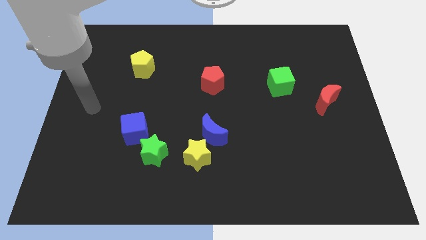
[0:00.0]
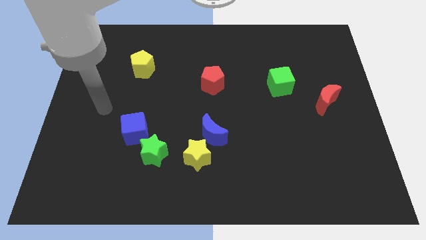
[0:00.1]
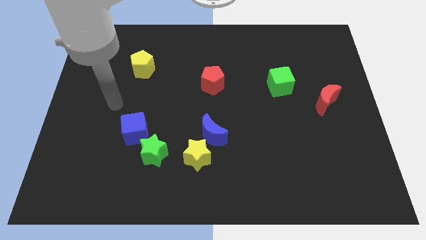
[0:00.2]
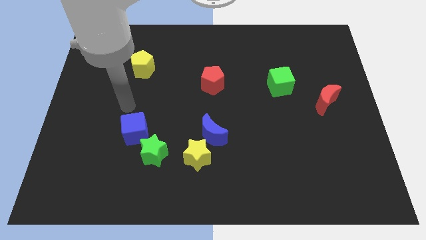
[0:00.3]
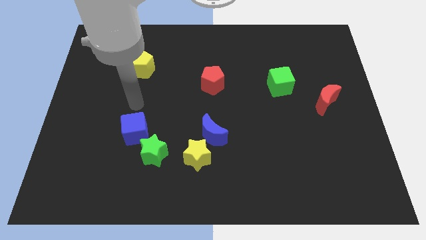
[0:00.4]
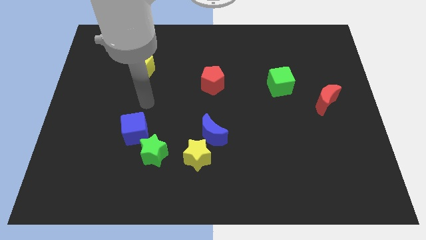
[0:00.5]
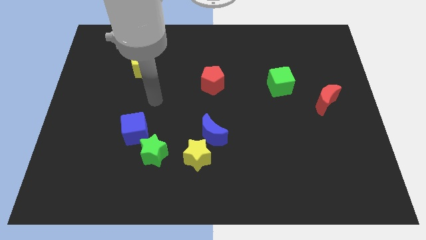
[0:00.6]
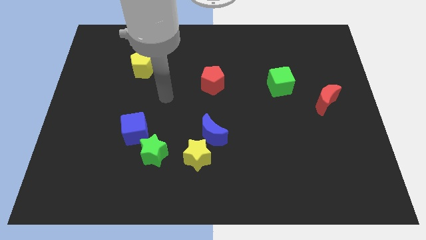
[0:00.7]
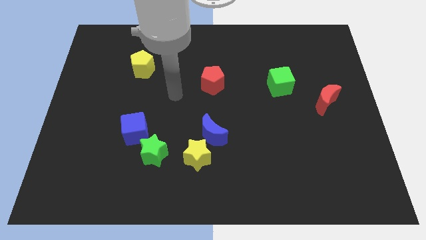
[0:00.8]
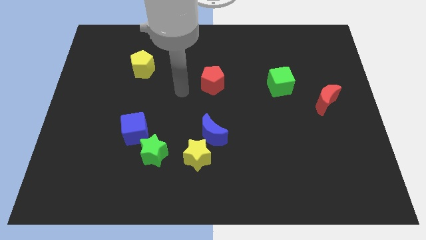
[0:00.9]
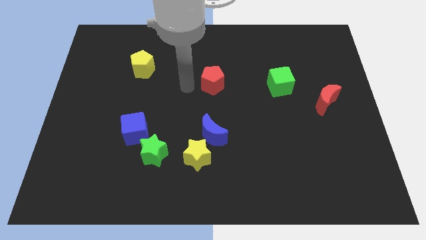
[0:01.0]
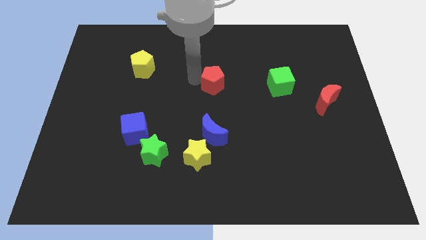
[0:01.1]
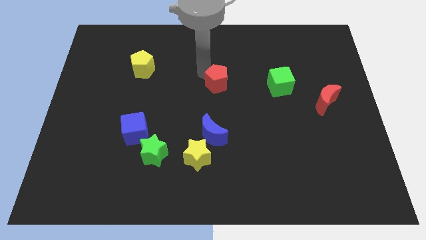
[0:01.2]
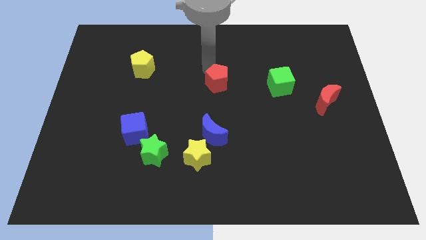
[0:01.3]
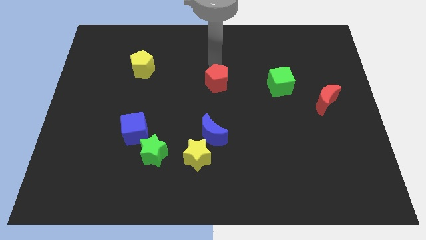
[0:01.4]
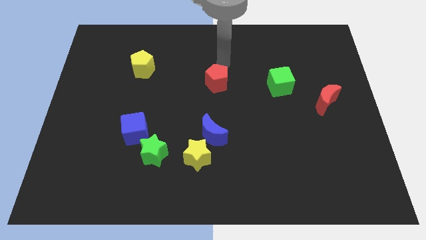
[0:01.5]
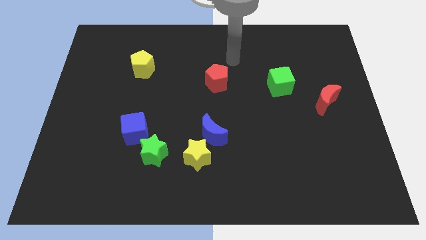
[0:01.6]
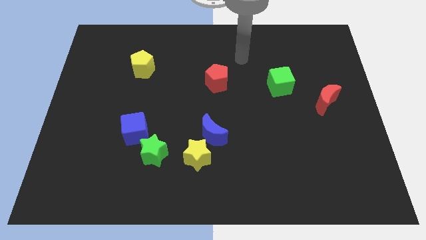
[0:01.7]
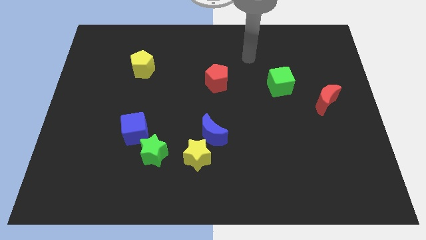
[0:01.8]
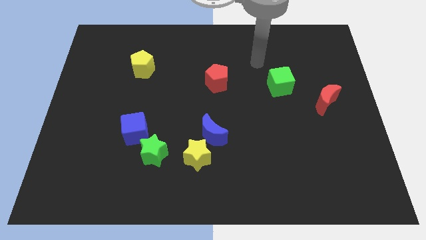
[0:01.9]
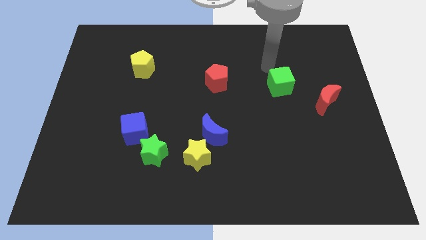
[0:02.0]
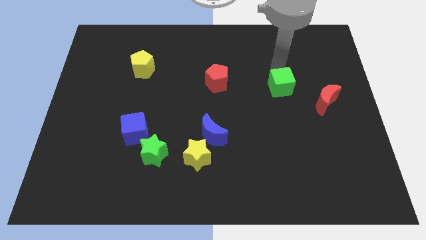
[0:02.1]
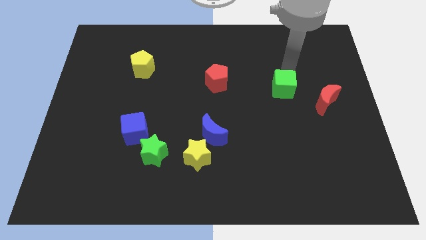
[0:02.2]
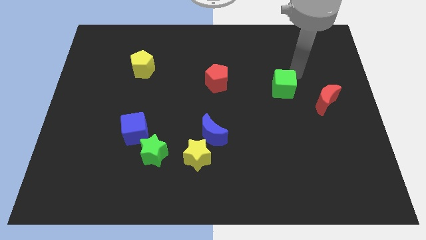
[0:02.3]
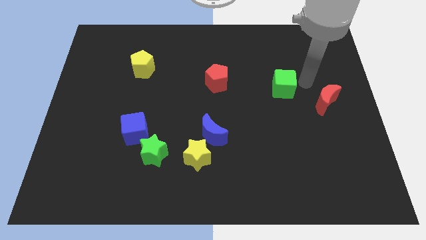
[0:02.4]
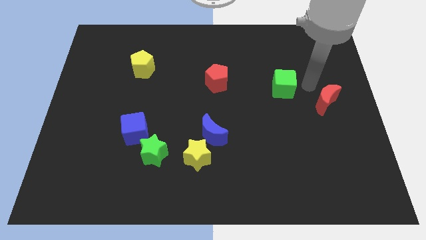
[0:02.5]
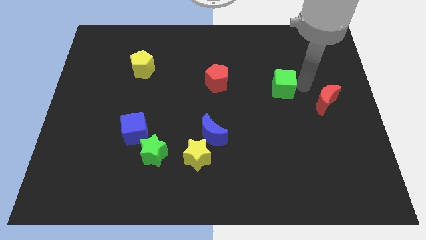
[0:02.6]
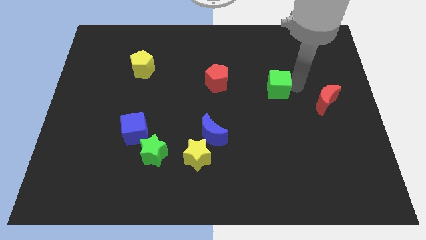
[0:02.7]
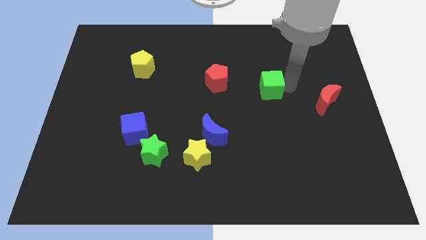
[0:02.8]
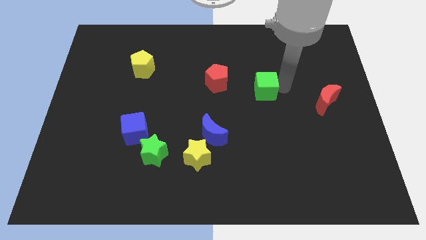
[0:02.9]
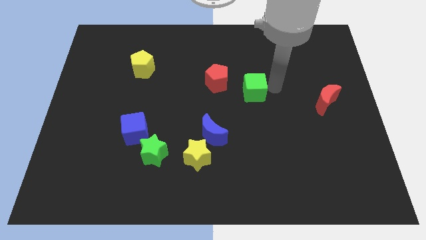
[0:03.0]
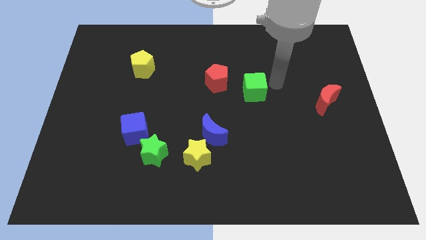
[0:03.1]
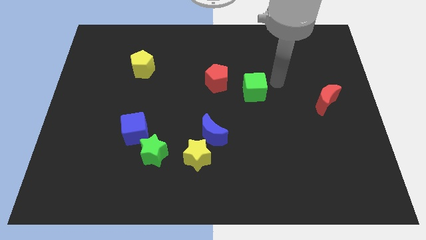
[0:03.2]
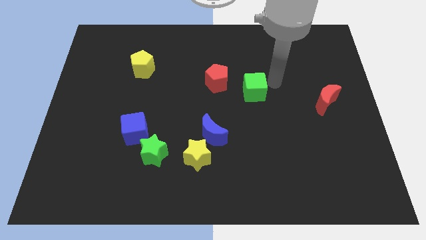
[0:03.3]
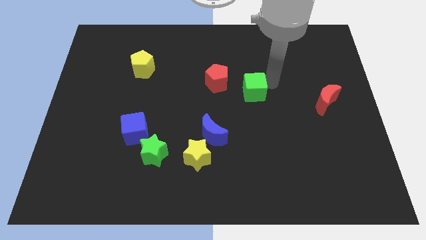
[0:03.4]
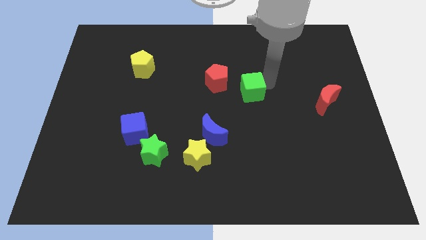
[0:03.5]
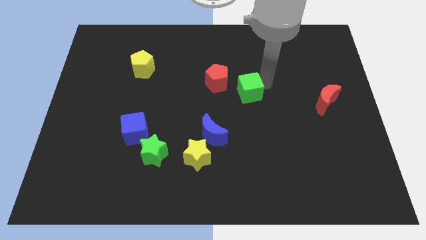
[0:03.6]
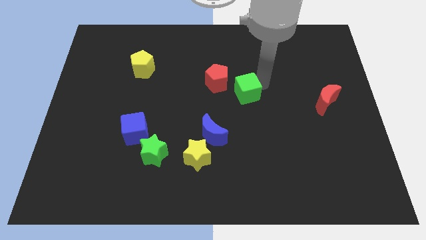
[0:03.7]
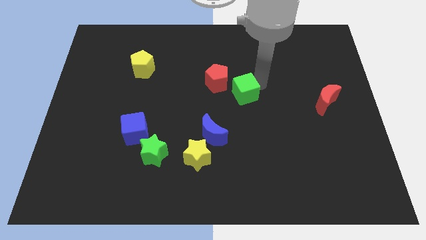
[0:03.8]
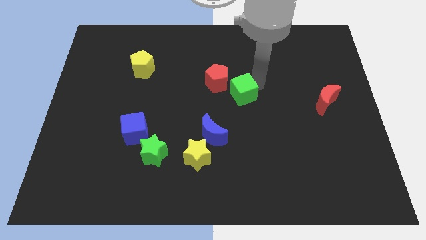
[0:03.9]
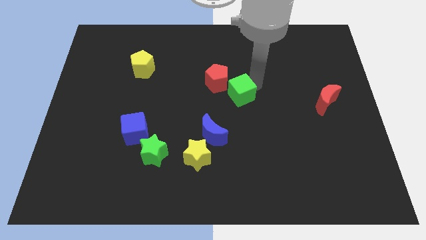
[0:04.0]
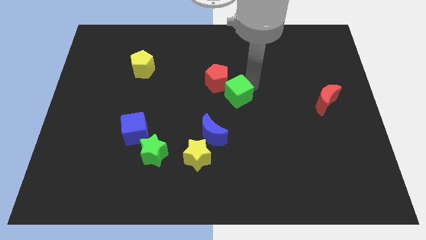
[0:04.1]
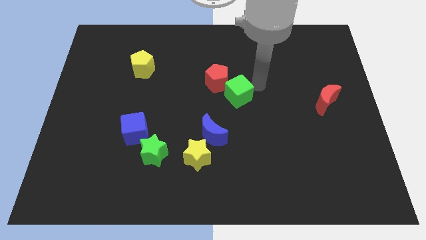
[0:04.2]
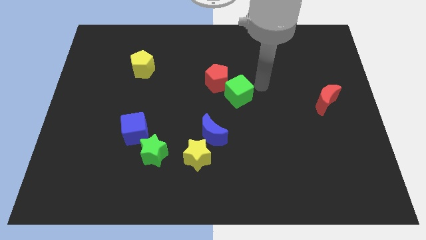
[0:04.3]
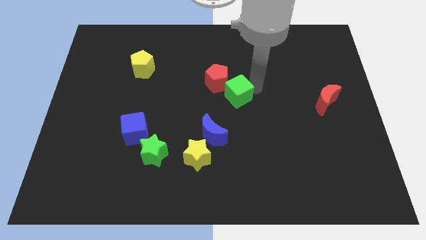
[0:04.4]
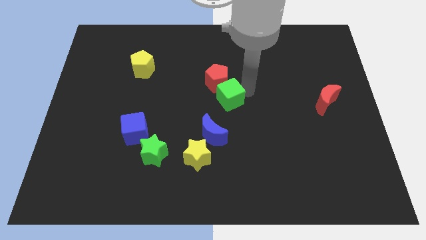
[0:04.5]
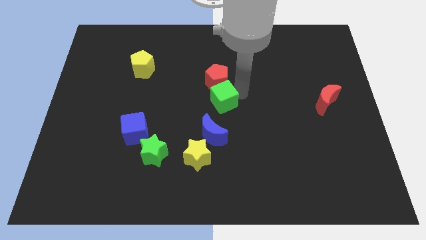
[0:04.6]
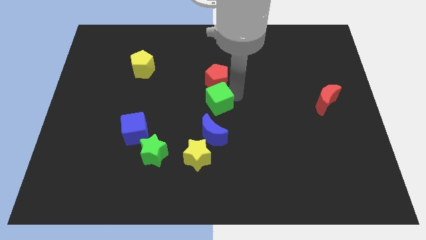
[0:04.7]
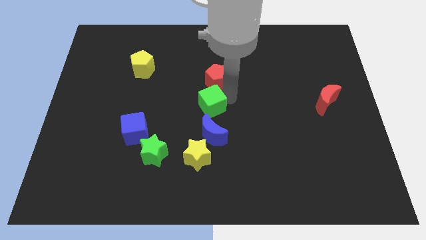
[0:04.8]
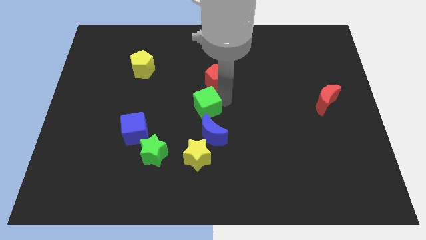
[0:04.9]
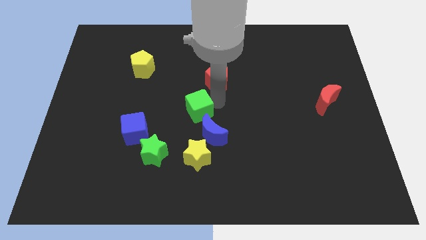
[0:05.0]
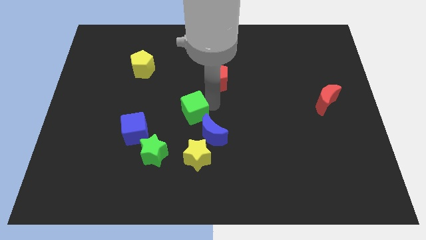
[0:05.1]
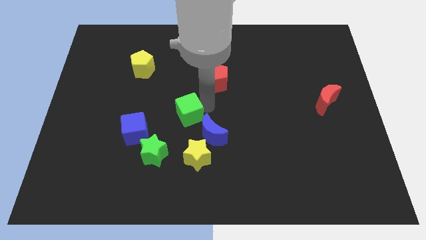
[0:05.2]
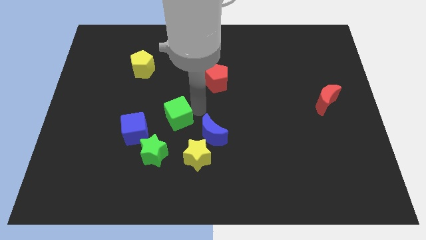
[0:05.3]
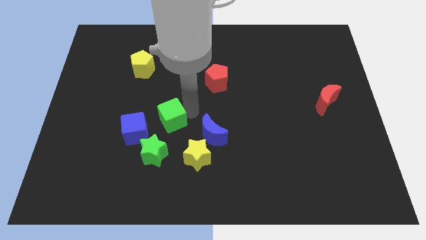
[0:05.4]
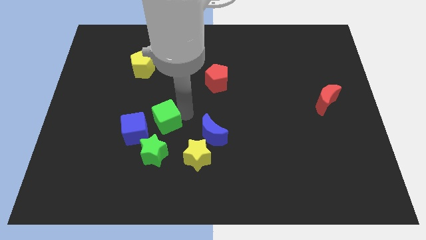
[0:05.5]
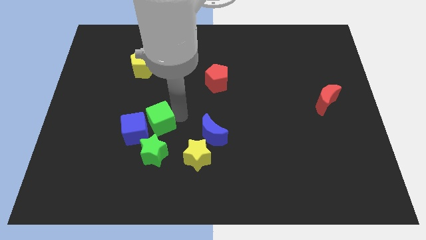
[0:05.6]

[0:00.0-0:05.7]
move the green cube to the blue cube

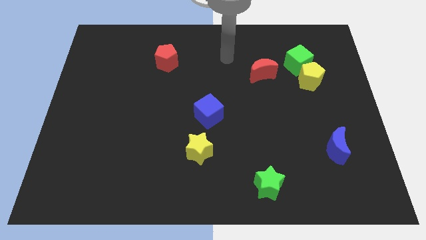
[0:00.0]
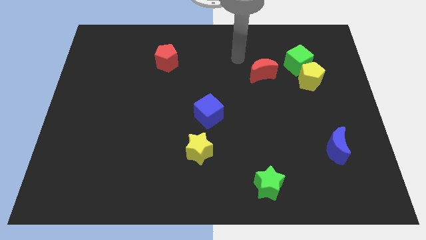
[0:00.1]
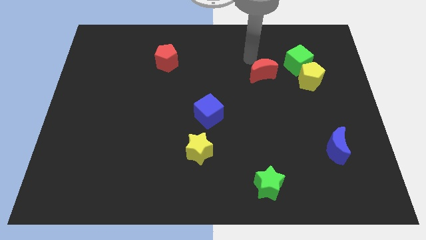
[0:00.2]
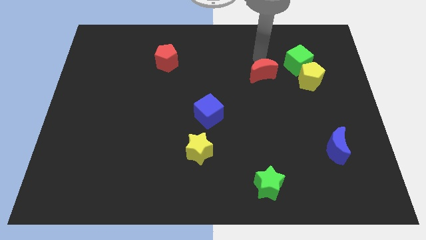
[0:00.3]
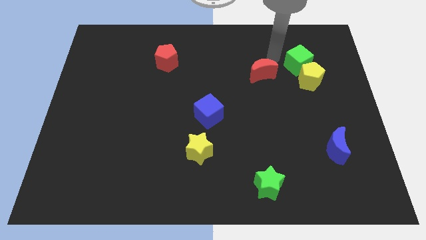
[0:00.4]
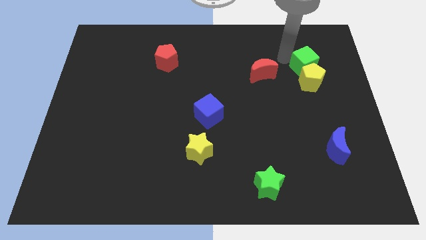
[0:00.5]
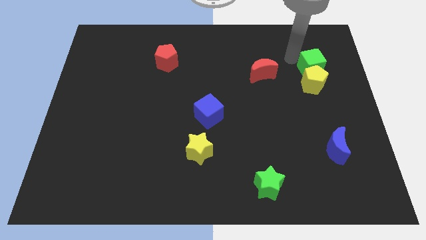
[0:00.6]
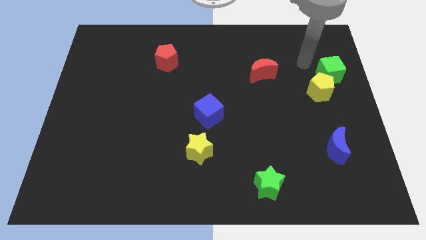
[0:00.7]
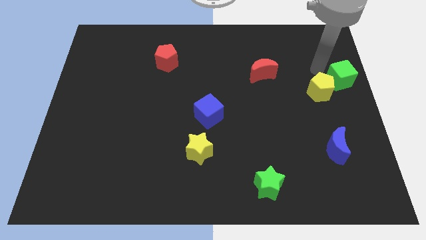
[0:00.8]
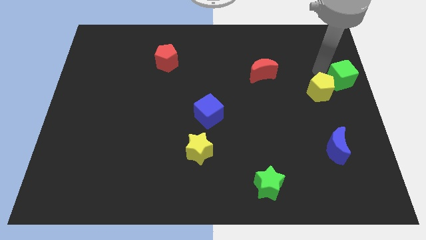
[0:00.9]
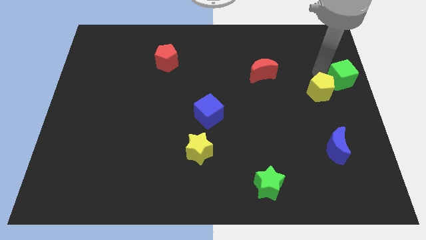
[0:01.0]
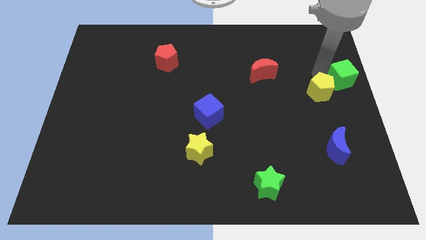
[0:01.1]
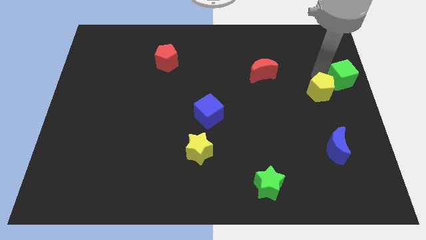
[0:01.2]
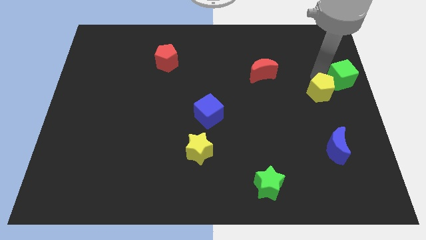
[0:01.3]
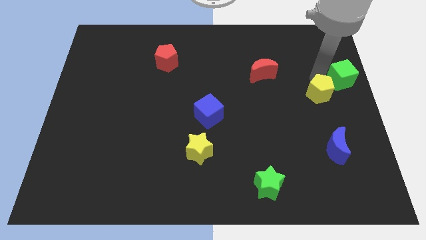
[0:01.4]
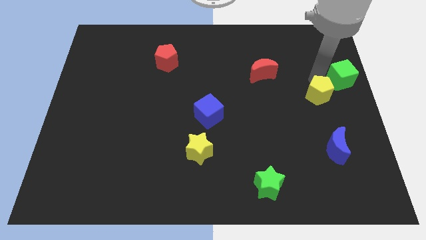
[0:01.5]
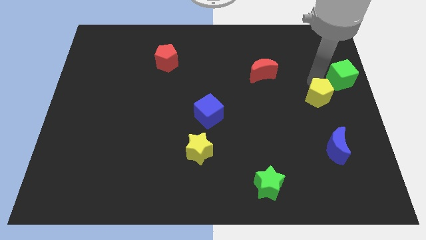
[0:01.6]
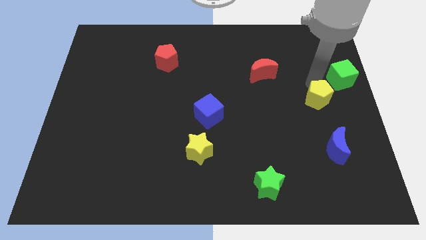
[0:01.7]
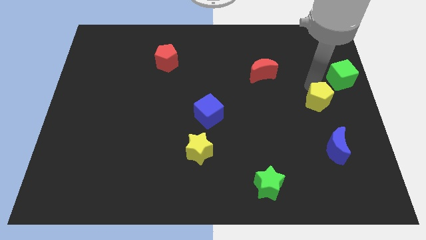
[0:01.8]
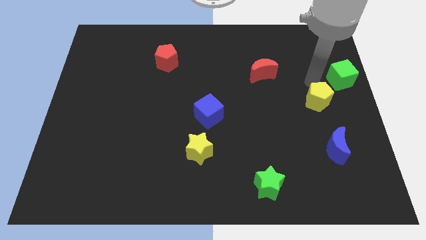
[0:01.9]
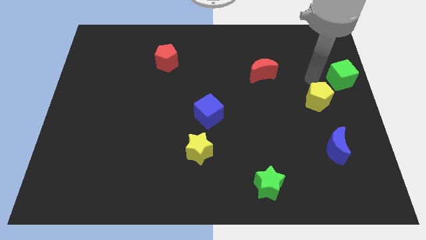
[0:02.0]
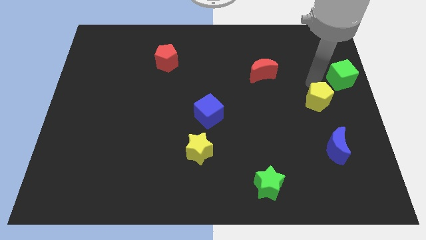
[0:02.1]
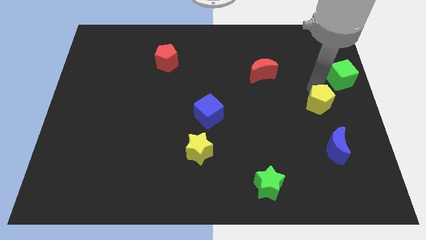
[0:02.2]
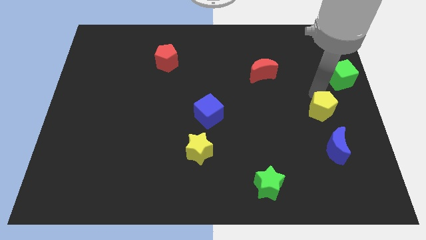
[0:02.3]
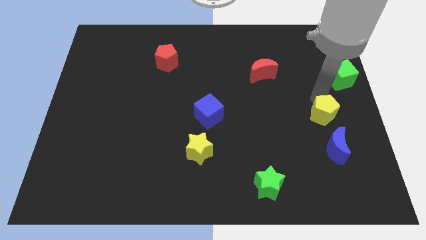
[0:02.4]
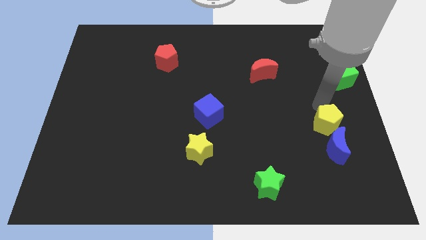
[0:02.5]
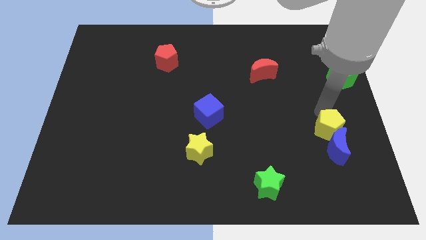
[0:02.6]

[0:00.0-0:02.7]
slide the yellow pentagon next to the blue moon
